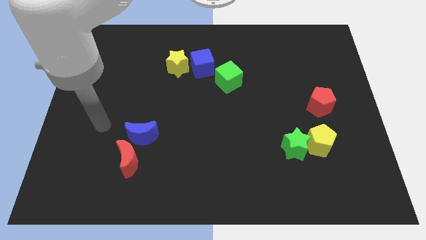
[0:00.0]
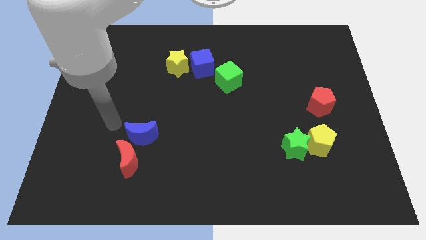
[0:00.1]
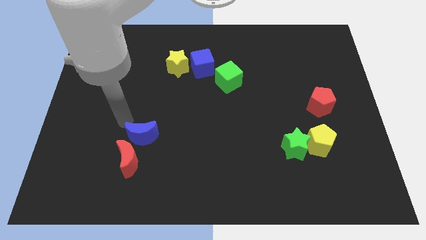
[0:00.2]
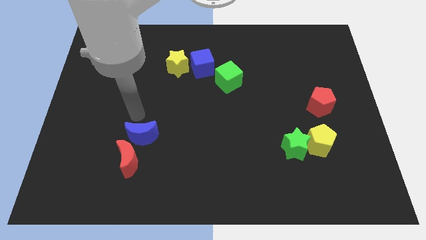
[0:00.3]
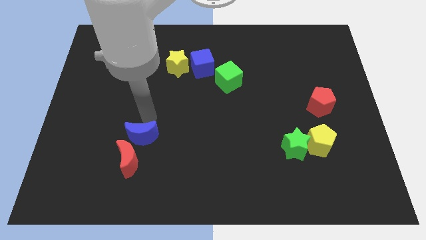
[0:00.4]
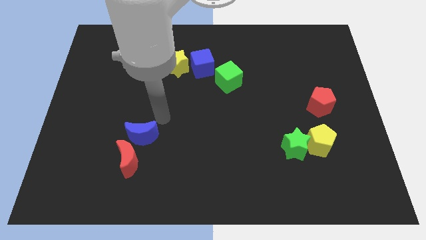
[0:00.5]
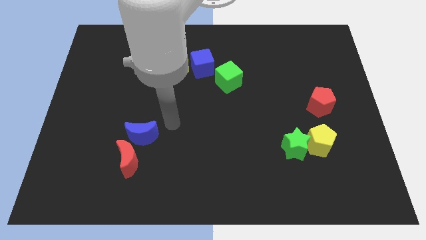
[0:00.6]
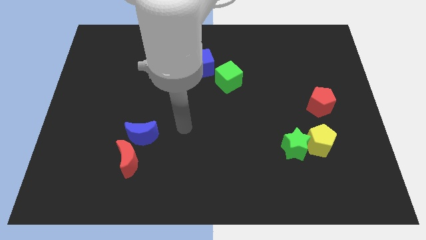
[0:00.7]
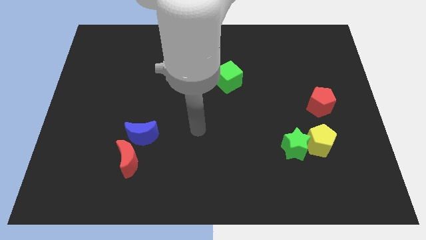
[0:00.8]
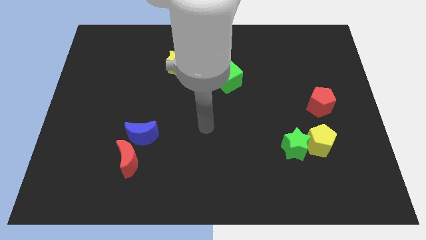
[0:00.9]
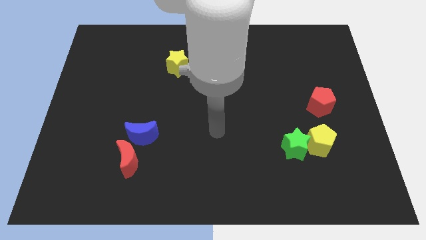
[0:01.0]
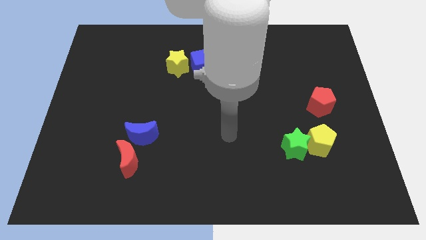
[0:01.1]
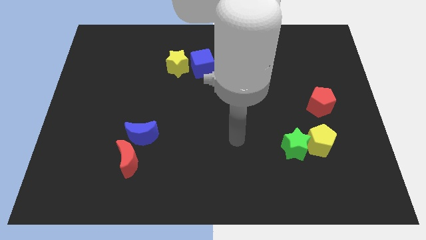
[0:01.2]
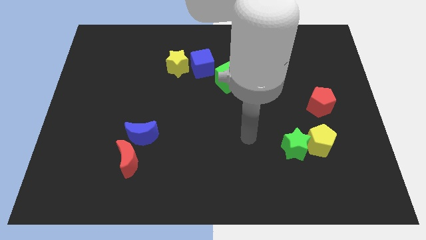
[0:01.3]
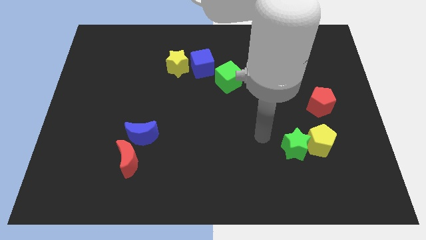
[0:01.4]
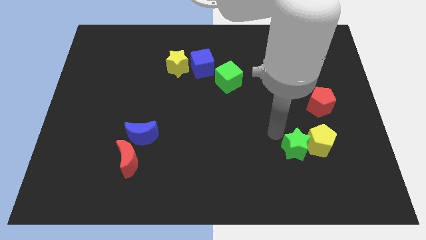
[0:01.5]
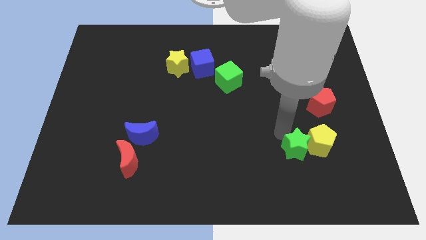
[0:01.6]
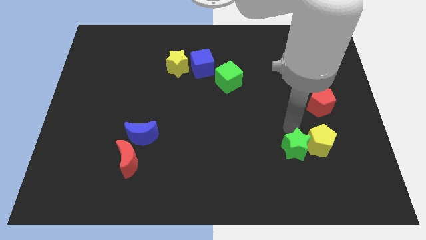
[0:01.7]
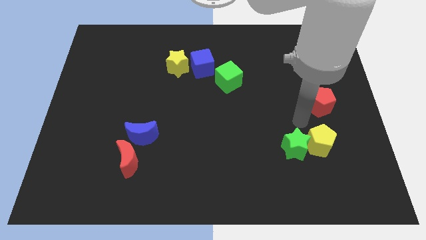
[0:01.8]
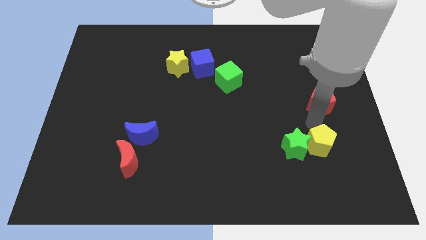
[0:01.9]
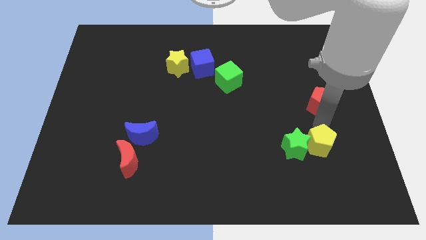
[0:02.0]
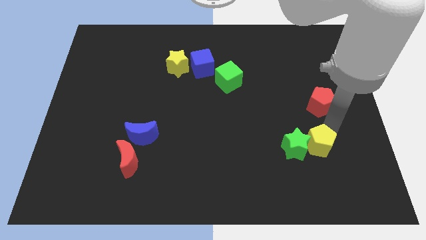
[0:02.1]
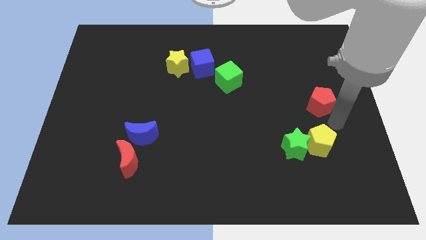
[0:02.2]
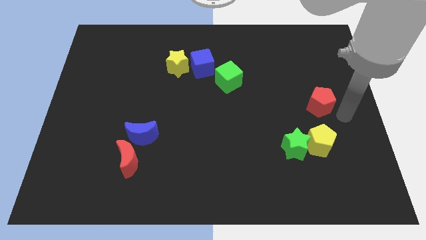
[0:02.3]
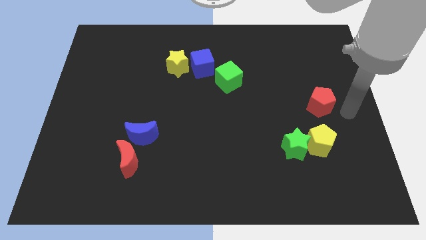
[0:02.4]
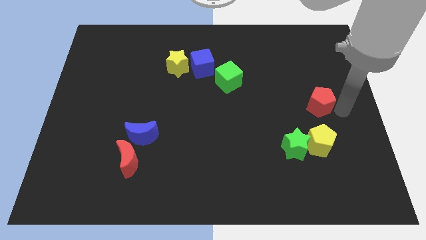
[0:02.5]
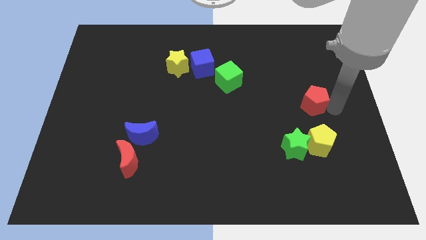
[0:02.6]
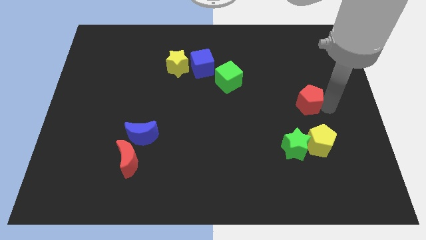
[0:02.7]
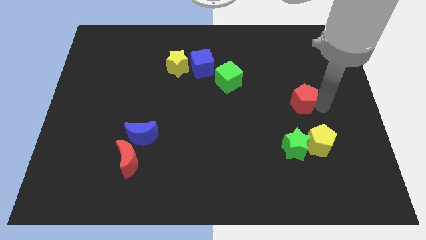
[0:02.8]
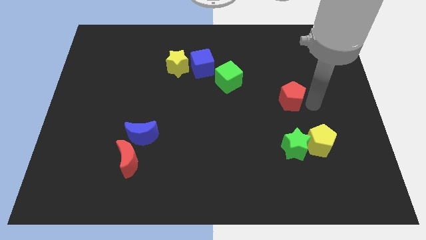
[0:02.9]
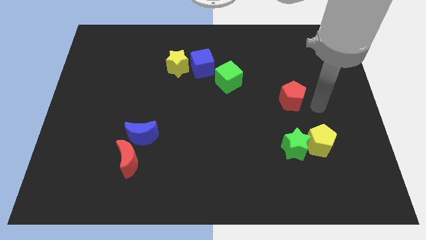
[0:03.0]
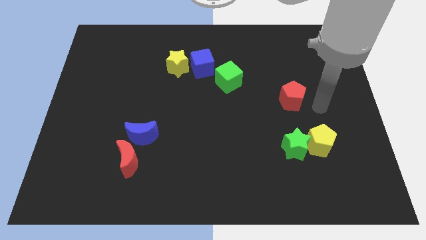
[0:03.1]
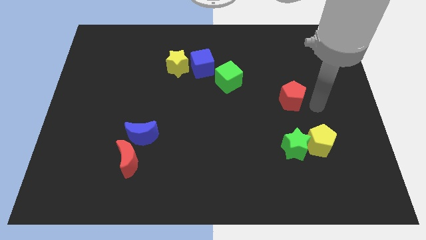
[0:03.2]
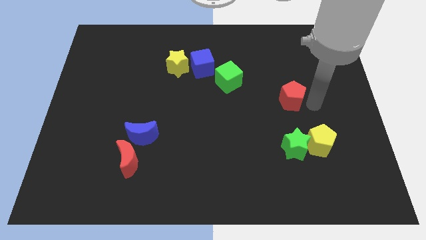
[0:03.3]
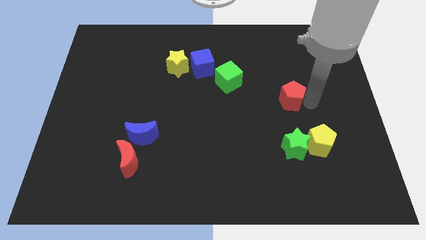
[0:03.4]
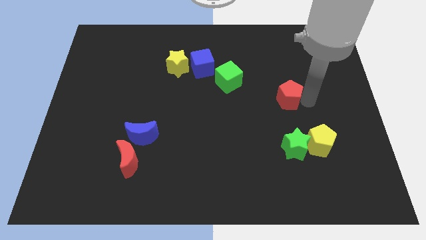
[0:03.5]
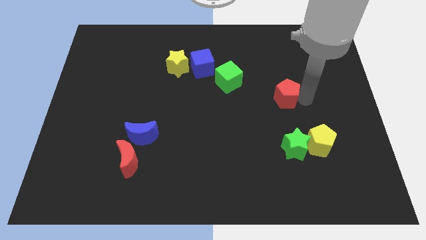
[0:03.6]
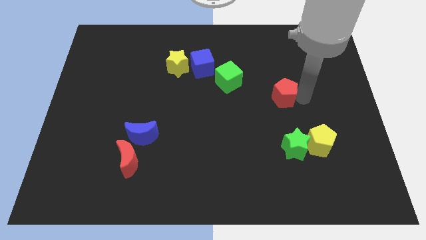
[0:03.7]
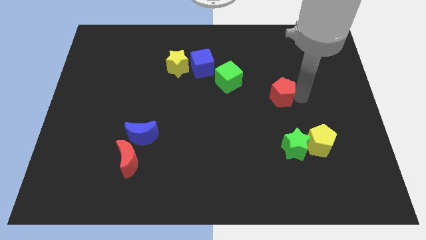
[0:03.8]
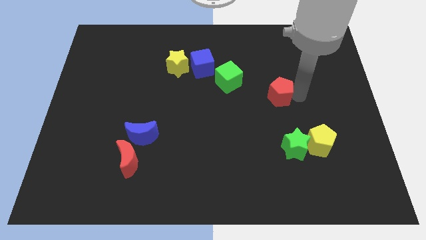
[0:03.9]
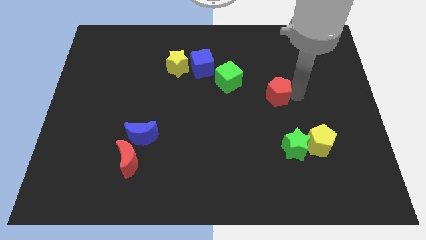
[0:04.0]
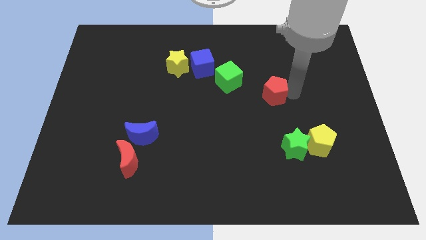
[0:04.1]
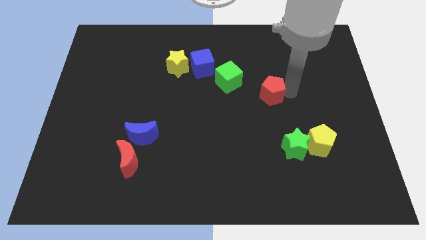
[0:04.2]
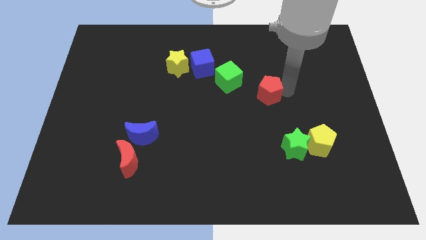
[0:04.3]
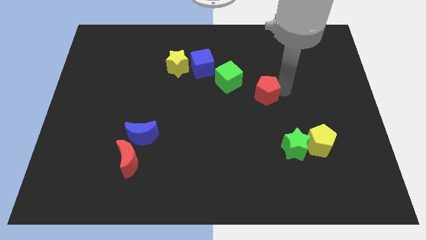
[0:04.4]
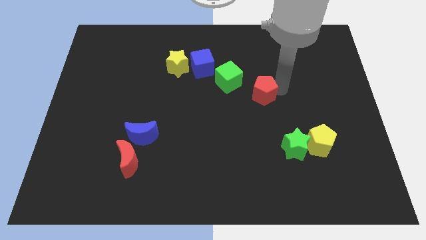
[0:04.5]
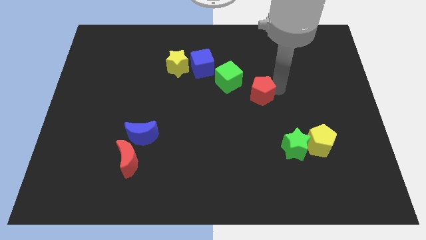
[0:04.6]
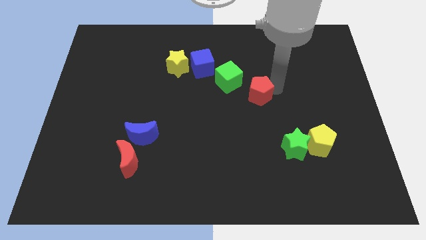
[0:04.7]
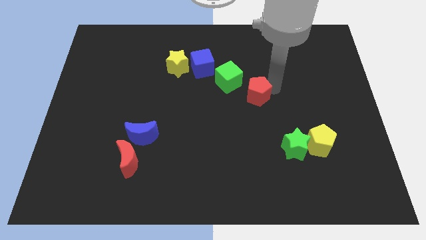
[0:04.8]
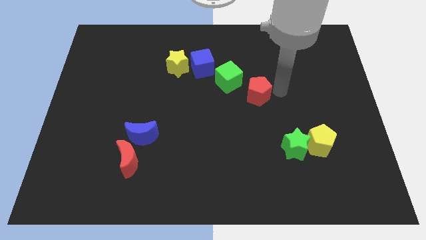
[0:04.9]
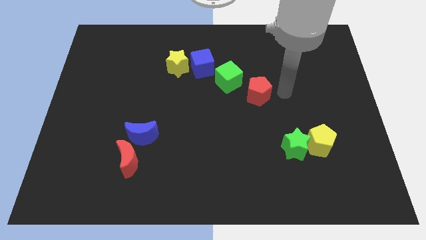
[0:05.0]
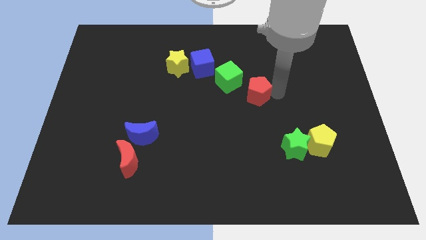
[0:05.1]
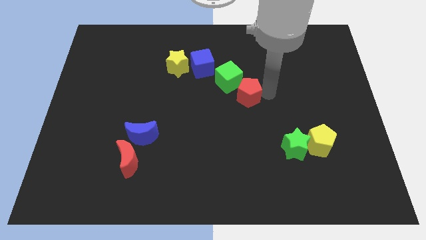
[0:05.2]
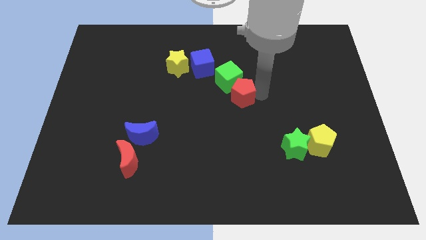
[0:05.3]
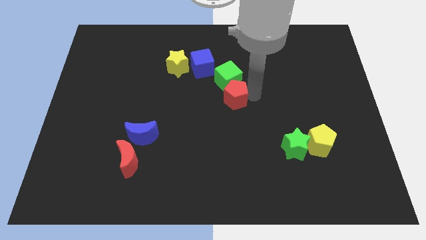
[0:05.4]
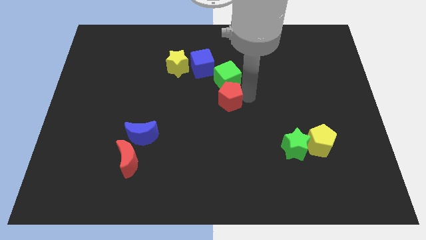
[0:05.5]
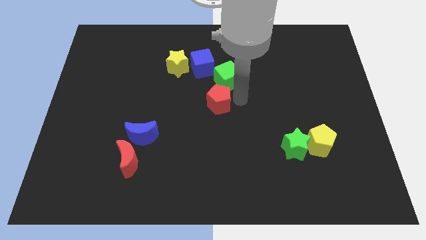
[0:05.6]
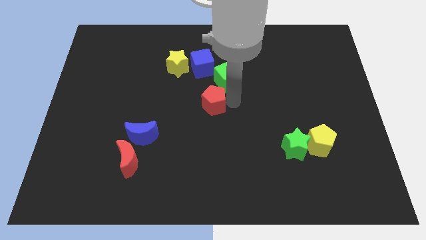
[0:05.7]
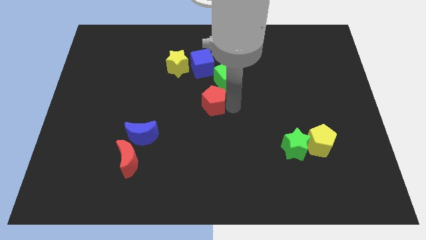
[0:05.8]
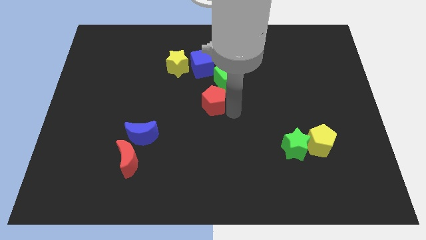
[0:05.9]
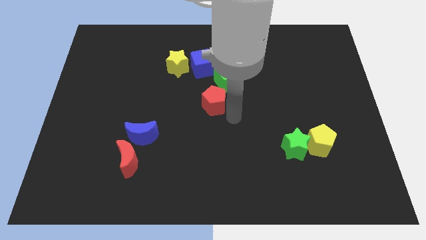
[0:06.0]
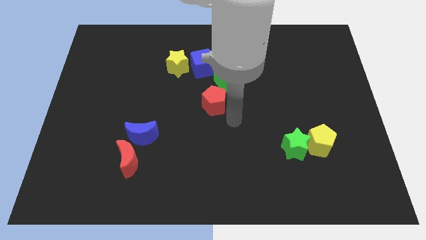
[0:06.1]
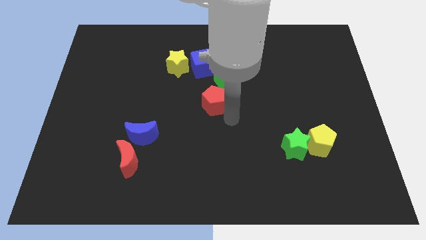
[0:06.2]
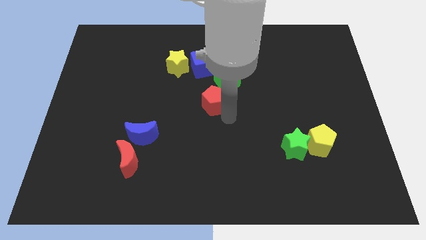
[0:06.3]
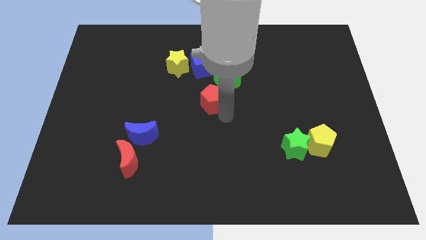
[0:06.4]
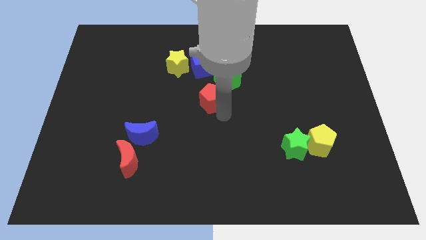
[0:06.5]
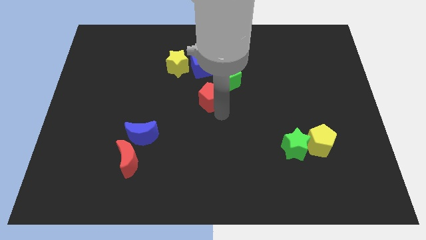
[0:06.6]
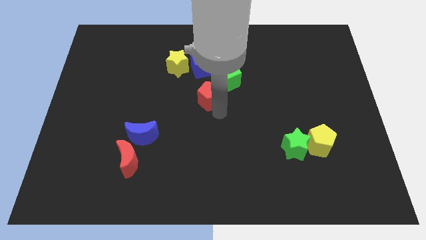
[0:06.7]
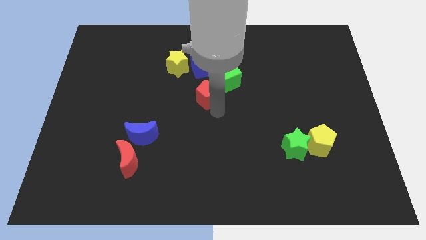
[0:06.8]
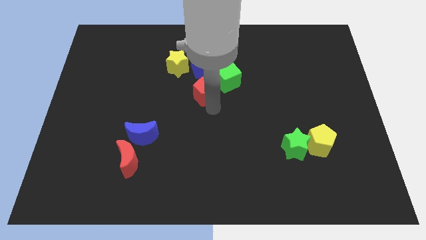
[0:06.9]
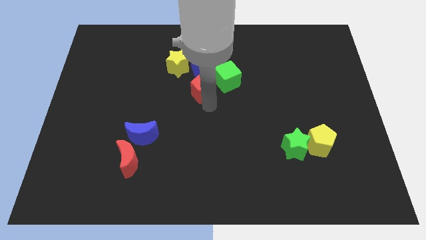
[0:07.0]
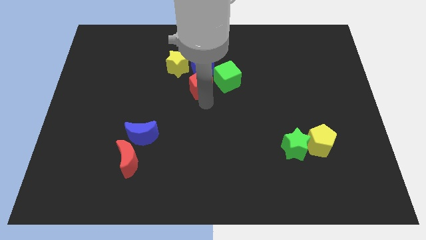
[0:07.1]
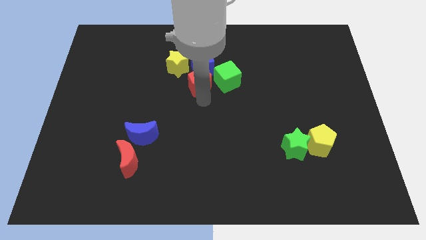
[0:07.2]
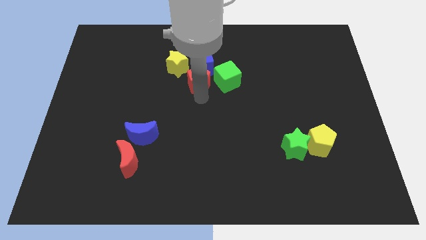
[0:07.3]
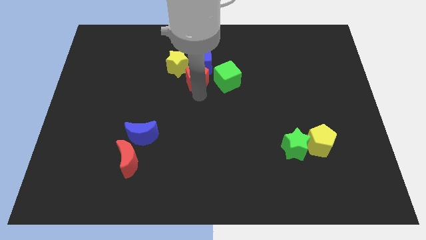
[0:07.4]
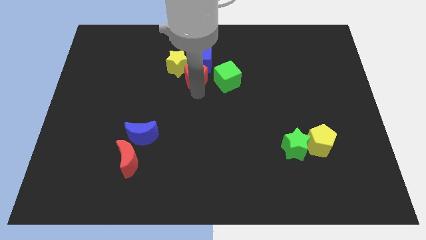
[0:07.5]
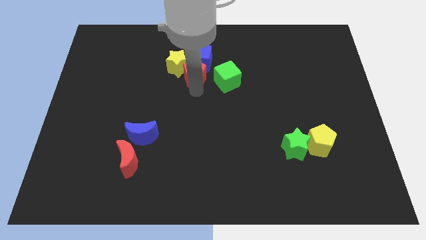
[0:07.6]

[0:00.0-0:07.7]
put the red pentagon next to the yellow star
